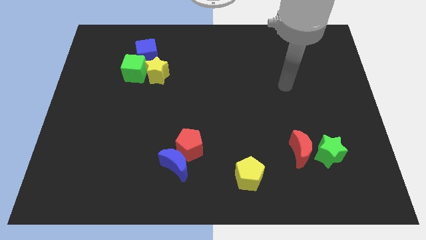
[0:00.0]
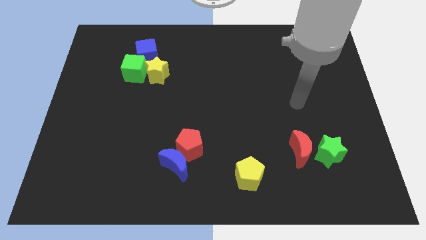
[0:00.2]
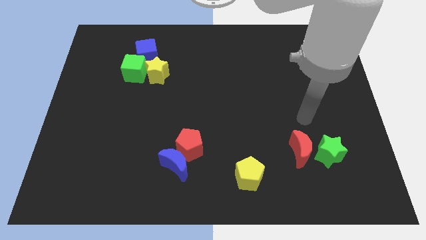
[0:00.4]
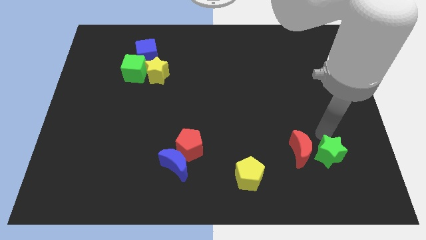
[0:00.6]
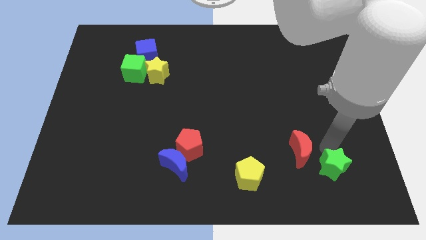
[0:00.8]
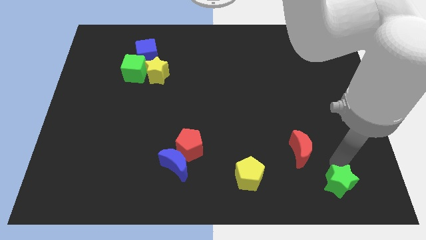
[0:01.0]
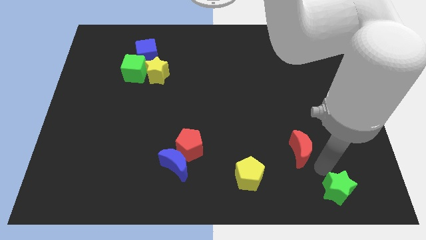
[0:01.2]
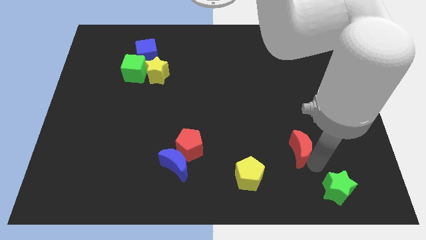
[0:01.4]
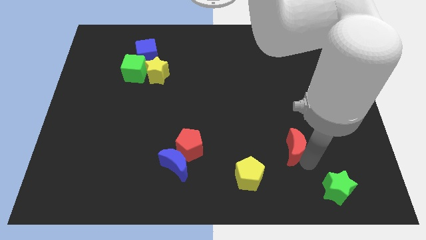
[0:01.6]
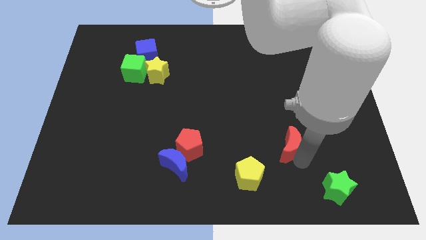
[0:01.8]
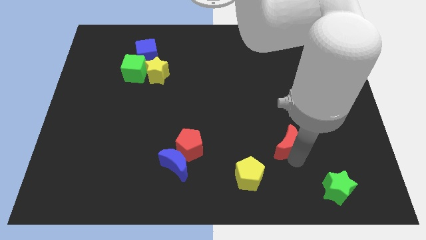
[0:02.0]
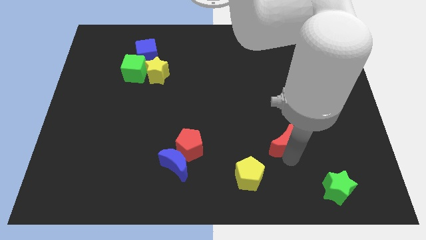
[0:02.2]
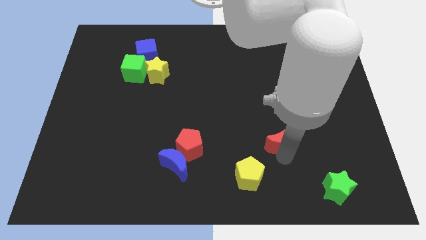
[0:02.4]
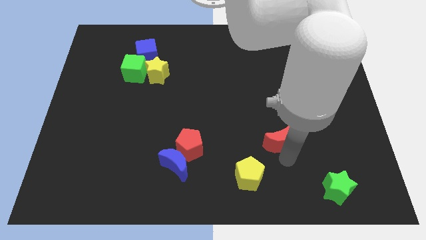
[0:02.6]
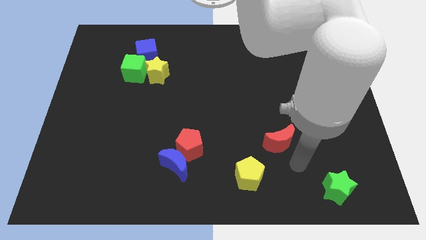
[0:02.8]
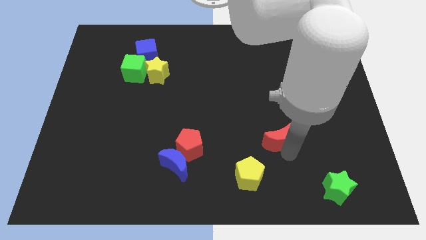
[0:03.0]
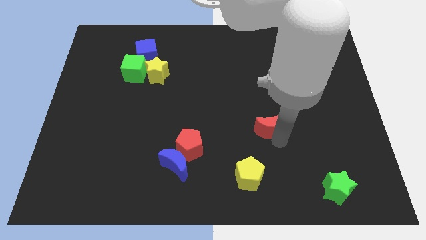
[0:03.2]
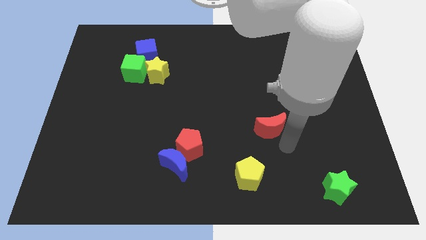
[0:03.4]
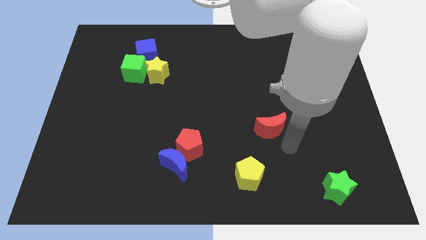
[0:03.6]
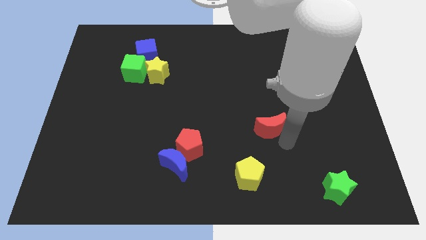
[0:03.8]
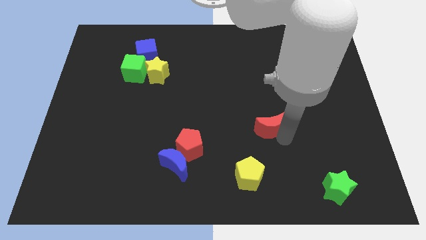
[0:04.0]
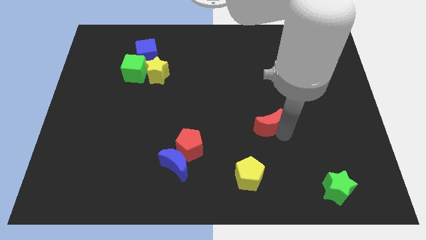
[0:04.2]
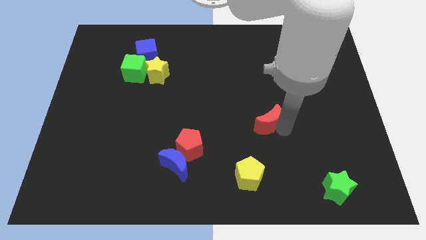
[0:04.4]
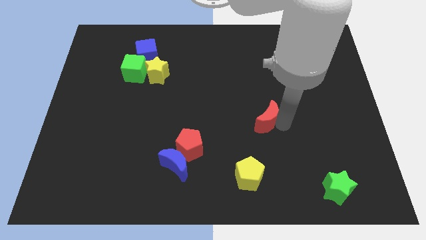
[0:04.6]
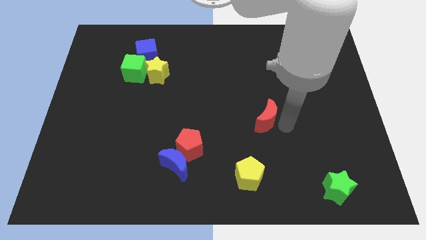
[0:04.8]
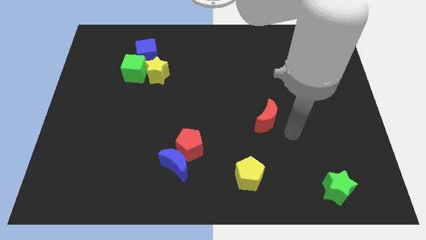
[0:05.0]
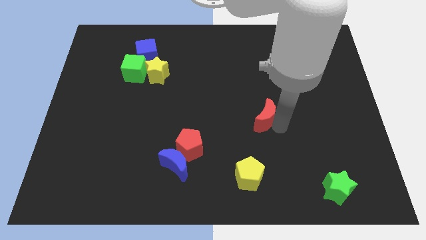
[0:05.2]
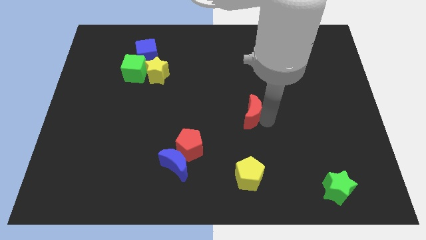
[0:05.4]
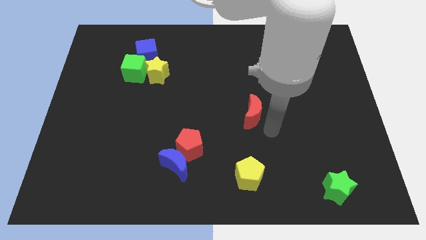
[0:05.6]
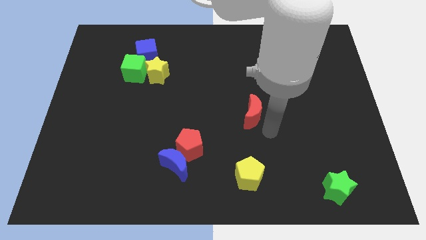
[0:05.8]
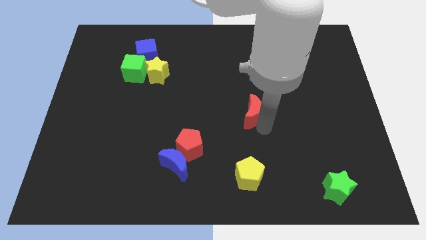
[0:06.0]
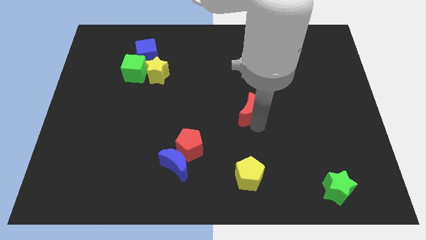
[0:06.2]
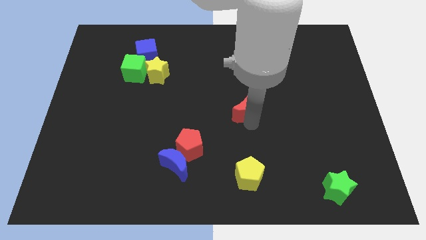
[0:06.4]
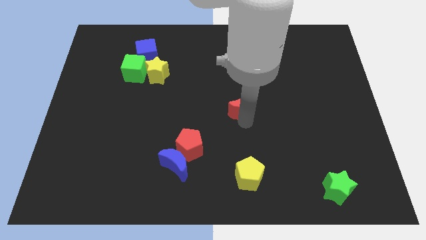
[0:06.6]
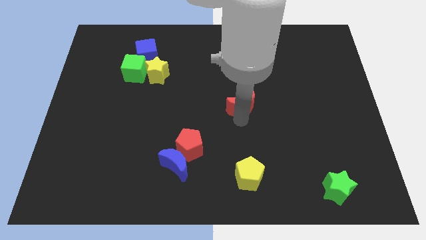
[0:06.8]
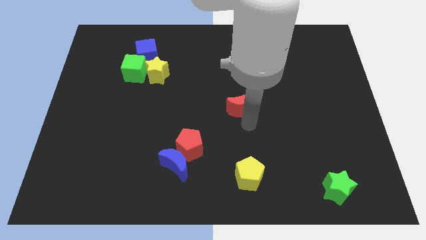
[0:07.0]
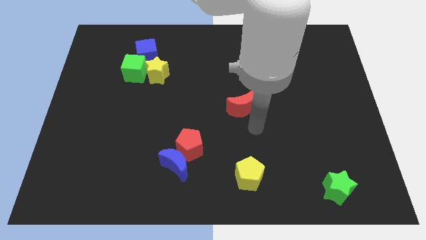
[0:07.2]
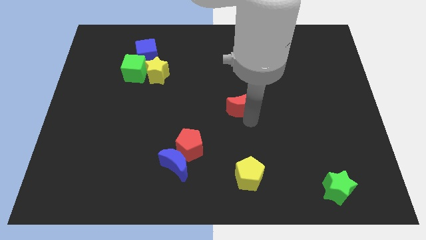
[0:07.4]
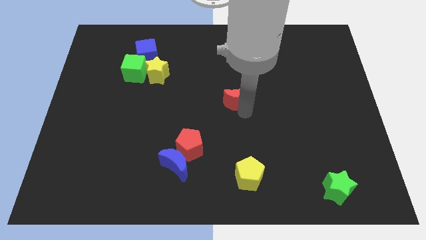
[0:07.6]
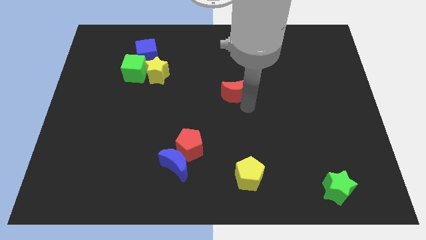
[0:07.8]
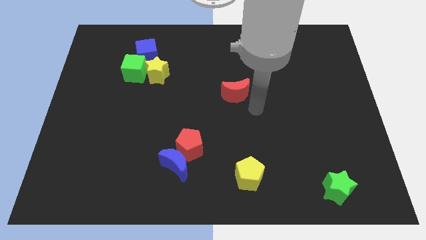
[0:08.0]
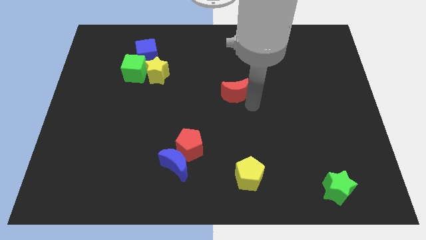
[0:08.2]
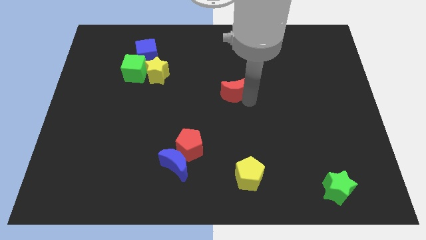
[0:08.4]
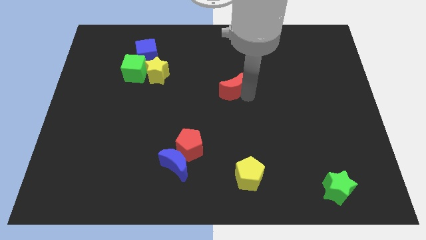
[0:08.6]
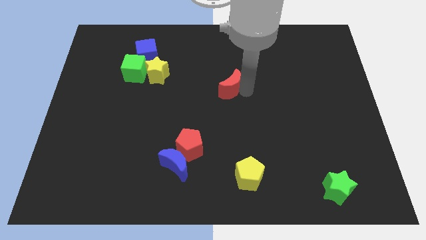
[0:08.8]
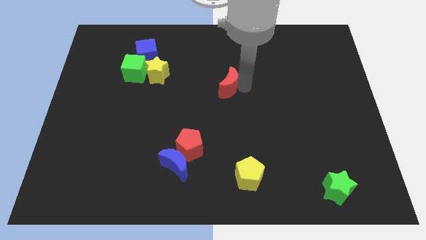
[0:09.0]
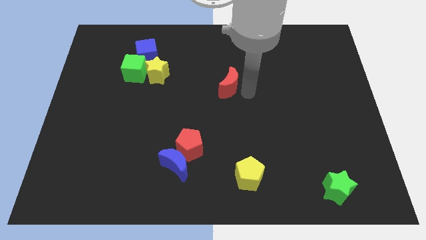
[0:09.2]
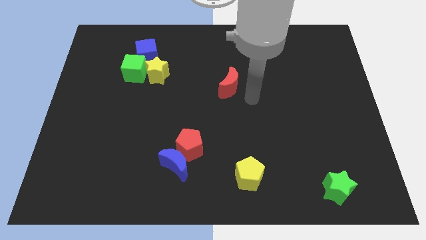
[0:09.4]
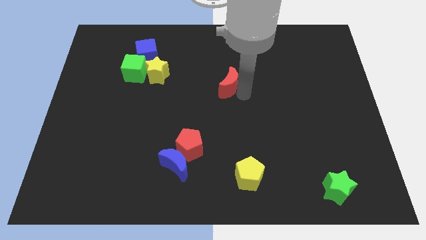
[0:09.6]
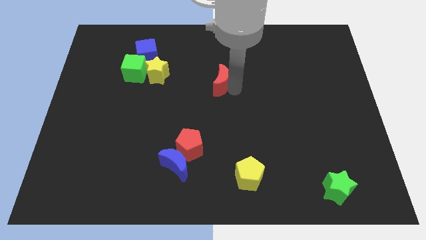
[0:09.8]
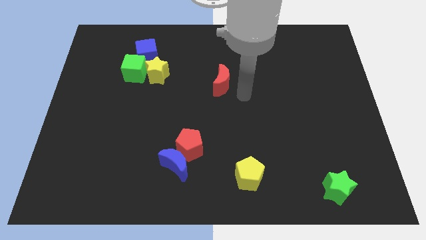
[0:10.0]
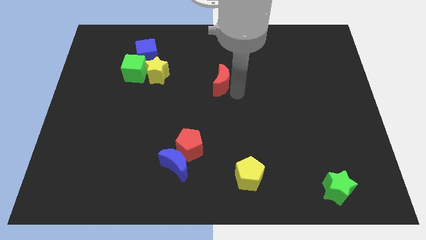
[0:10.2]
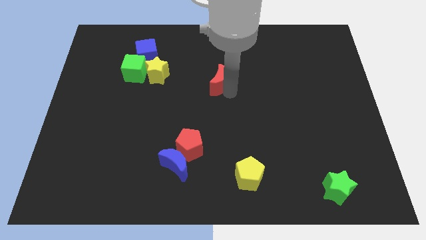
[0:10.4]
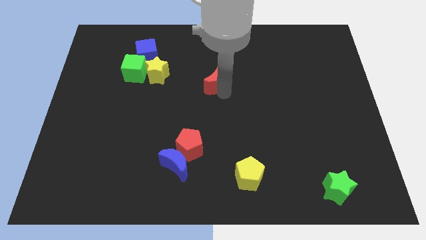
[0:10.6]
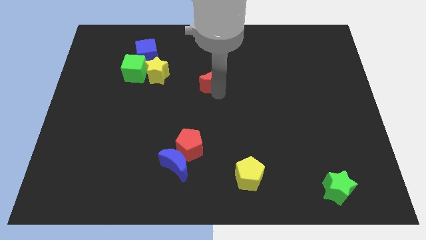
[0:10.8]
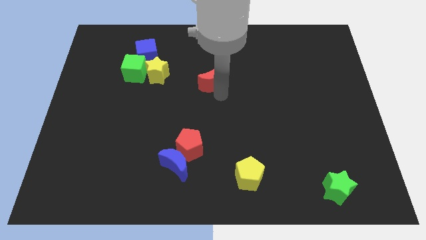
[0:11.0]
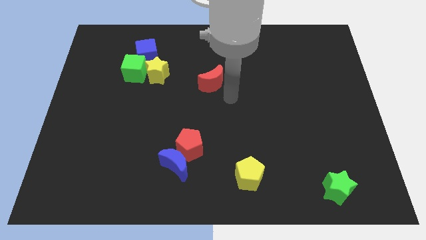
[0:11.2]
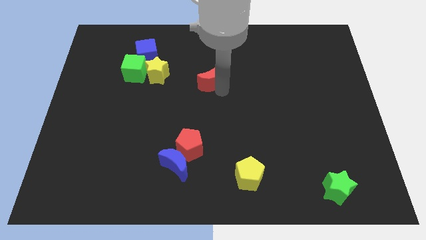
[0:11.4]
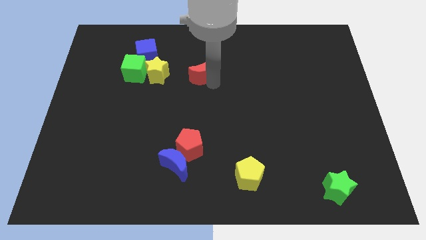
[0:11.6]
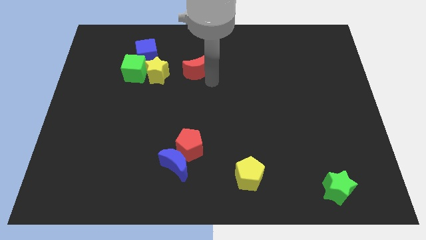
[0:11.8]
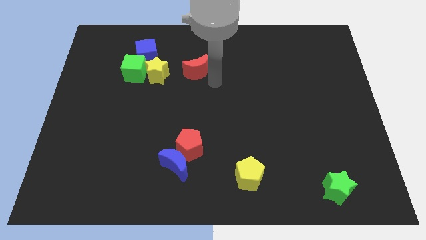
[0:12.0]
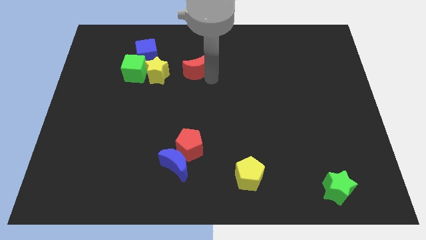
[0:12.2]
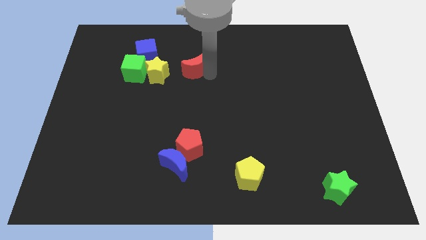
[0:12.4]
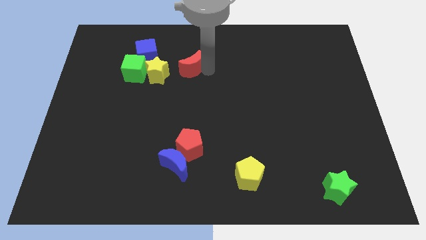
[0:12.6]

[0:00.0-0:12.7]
slide the red moon to the top right of the yellow star

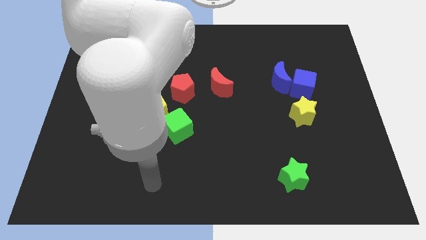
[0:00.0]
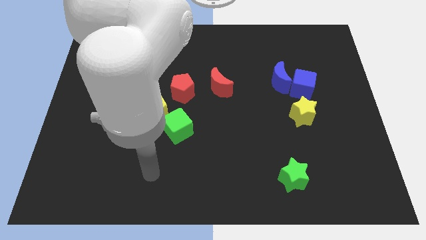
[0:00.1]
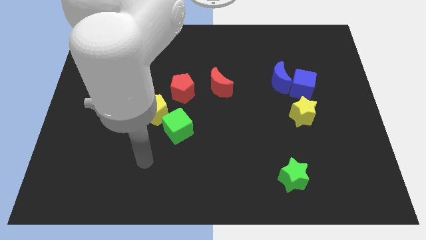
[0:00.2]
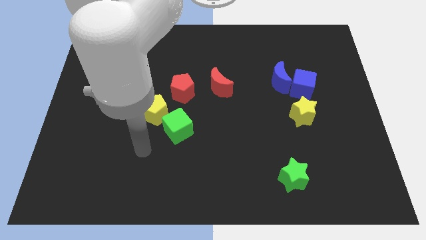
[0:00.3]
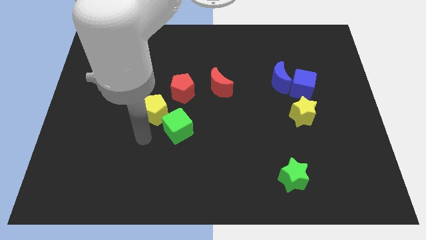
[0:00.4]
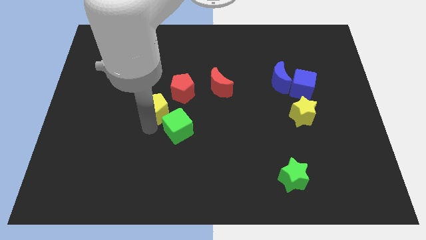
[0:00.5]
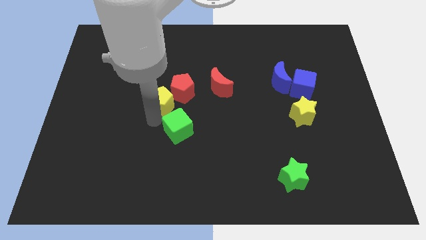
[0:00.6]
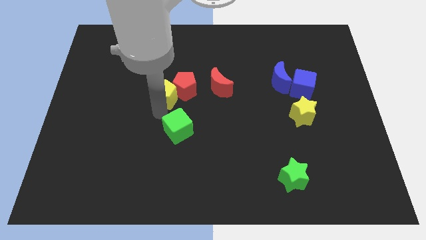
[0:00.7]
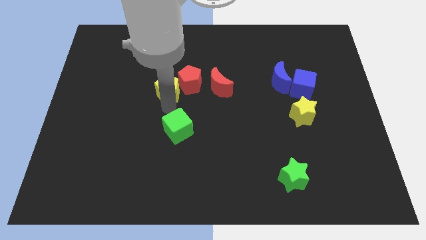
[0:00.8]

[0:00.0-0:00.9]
put the red pentagon to the top left of the red moon

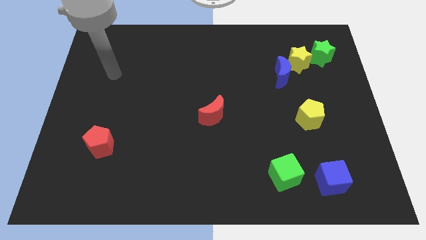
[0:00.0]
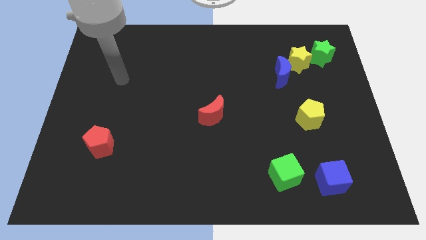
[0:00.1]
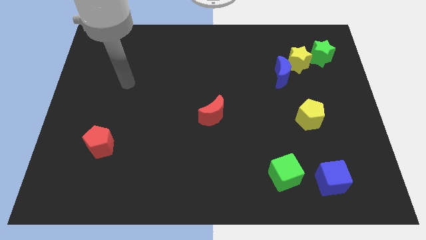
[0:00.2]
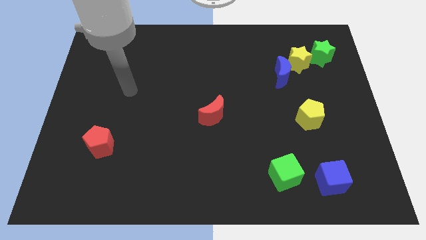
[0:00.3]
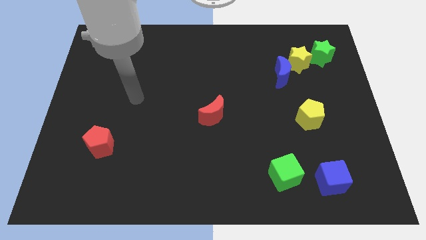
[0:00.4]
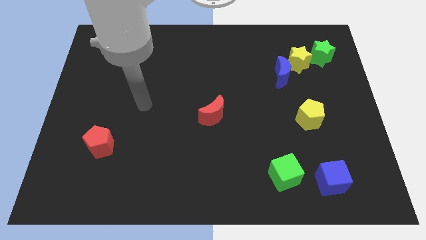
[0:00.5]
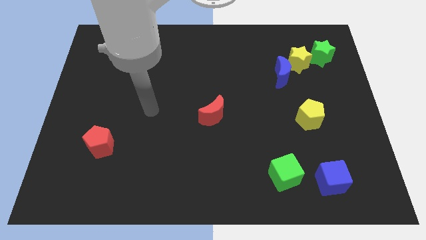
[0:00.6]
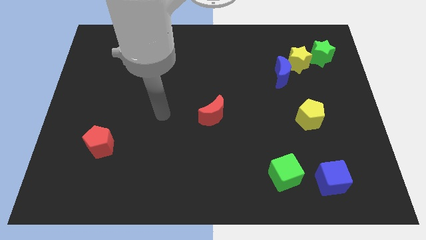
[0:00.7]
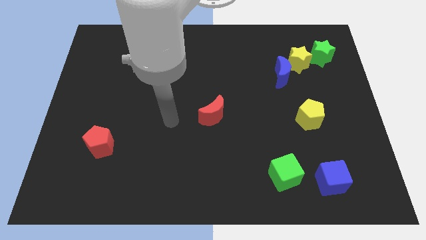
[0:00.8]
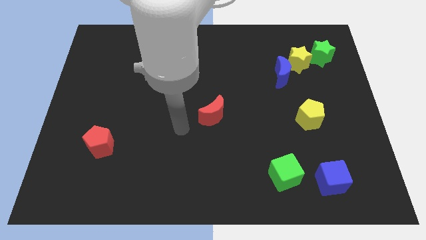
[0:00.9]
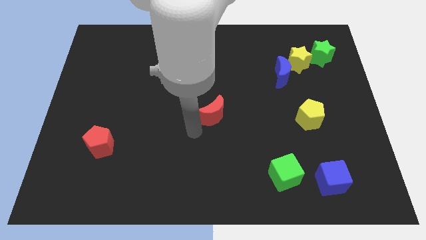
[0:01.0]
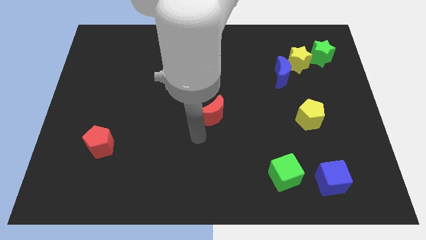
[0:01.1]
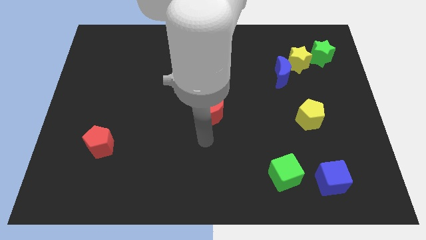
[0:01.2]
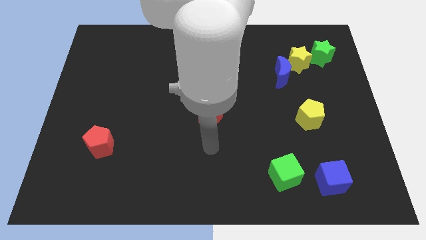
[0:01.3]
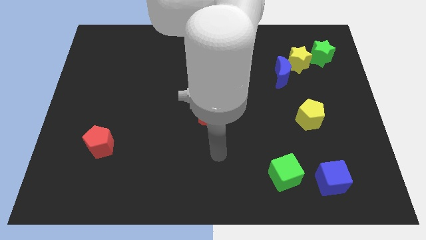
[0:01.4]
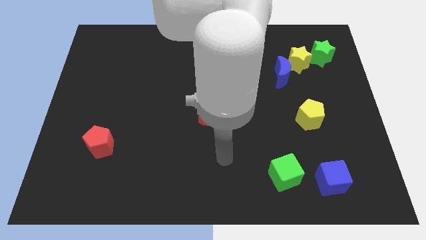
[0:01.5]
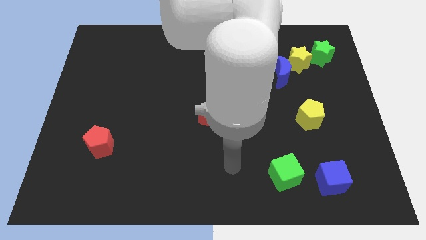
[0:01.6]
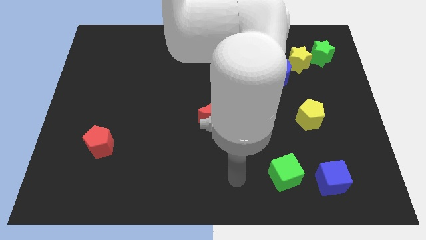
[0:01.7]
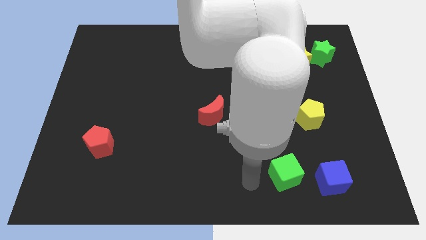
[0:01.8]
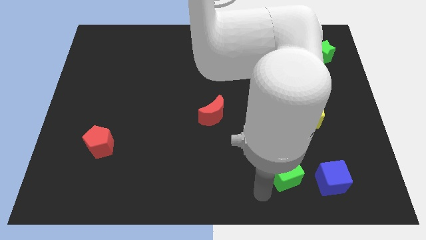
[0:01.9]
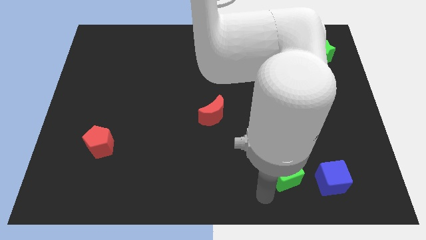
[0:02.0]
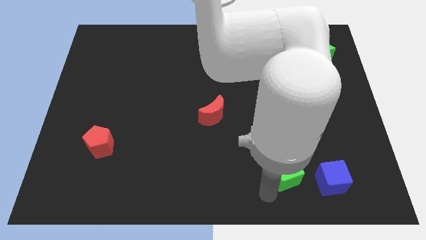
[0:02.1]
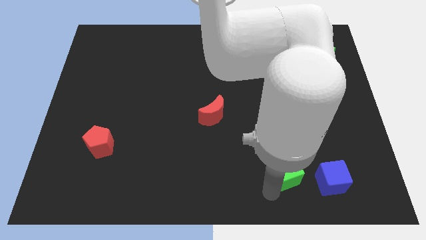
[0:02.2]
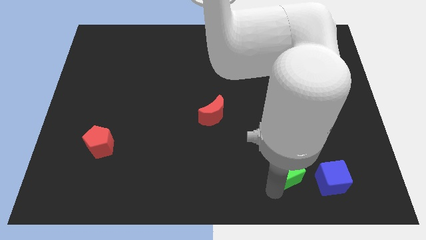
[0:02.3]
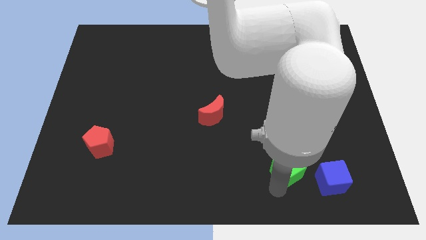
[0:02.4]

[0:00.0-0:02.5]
put the green cube diagonally up and to the left of the blue cube
